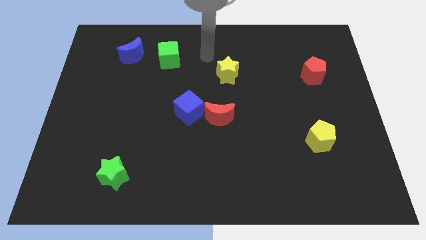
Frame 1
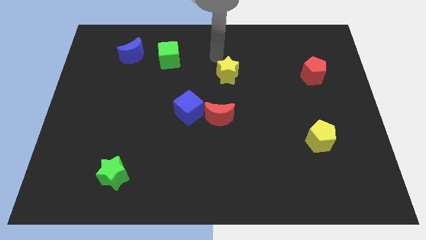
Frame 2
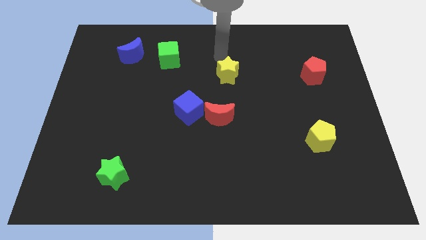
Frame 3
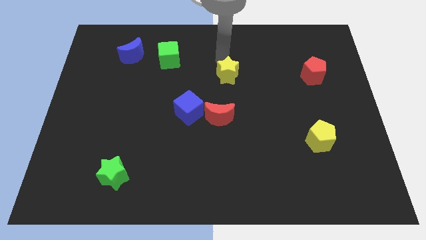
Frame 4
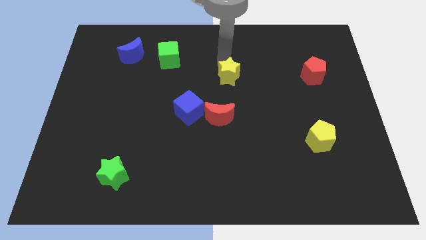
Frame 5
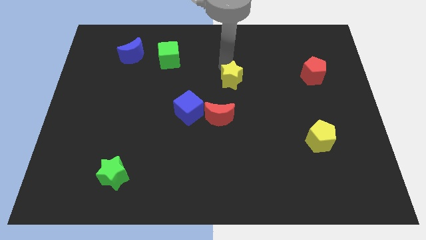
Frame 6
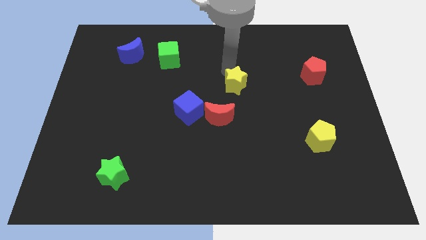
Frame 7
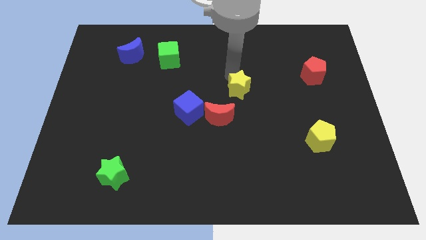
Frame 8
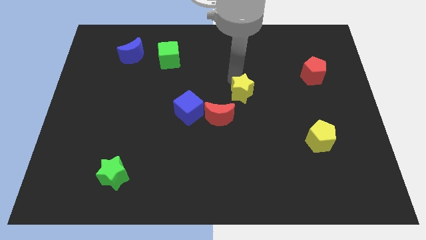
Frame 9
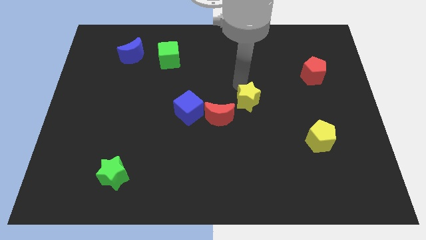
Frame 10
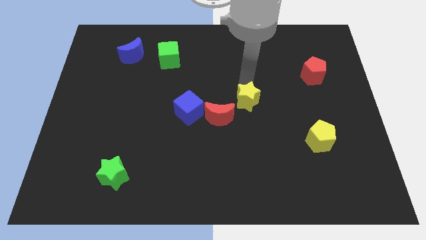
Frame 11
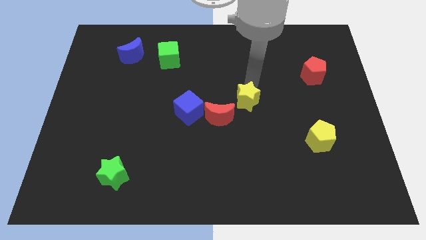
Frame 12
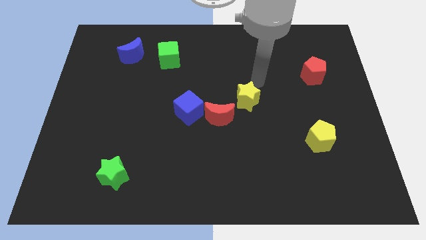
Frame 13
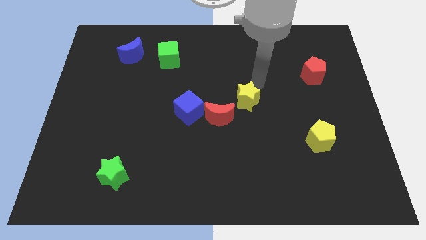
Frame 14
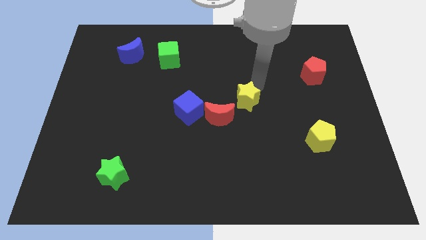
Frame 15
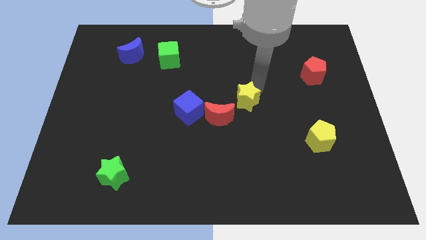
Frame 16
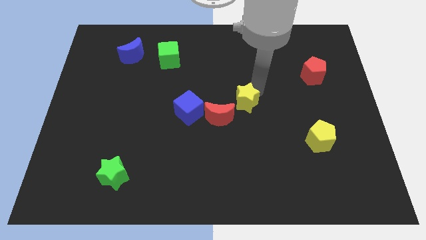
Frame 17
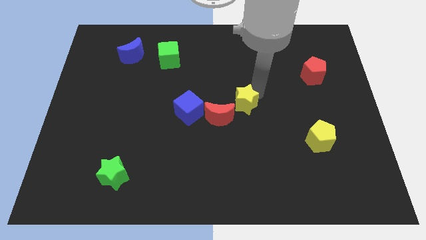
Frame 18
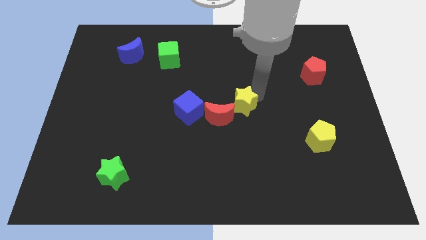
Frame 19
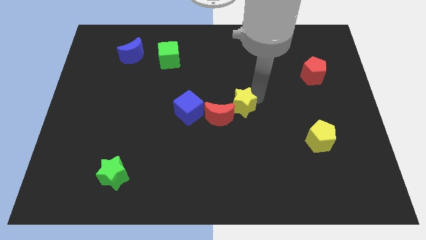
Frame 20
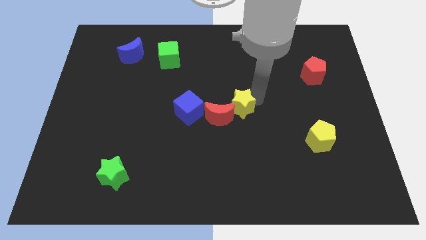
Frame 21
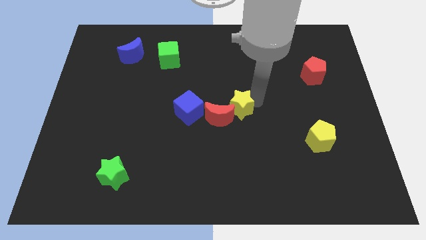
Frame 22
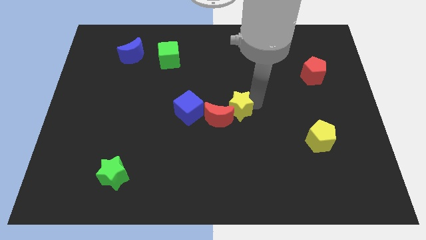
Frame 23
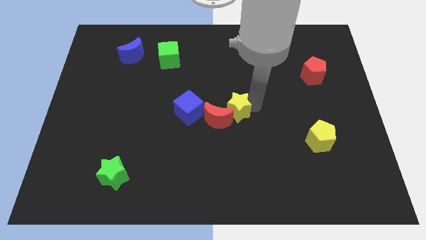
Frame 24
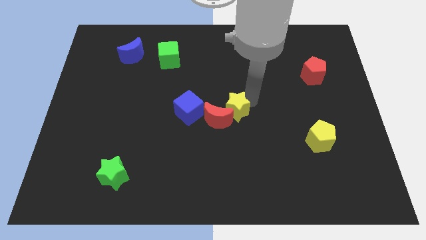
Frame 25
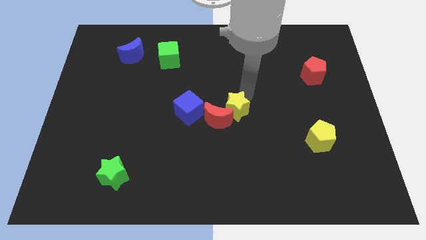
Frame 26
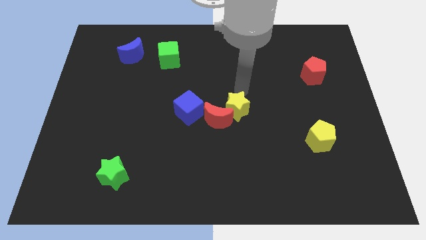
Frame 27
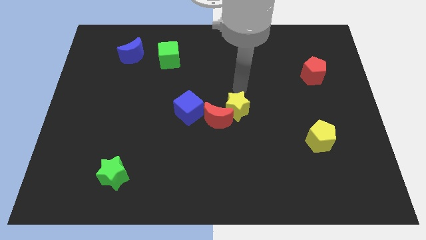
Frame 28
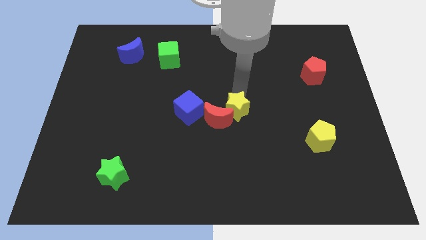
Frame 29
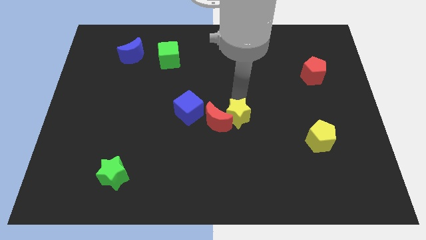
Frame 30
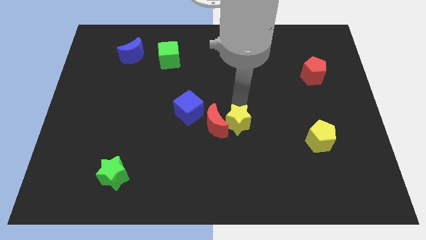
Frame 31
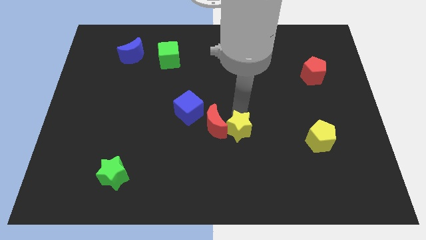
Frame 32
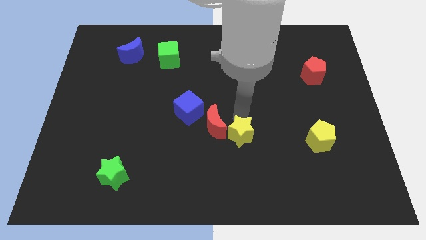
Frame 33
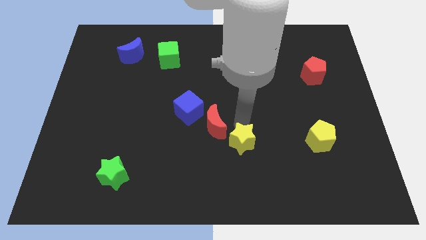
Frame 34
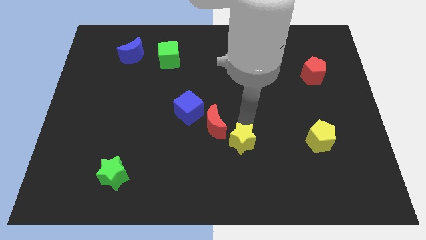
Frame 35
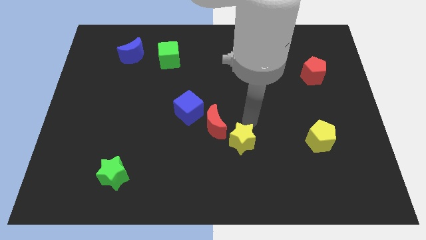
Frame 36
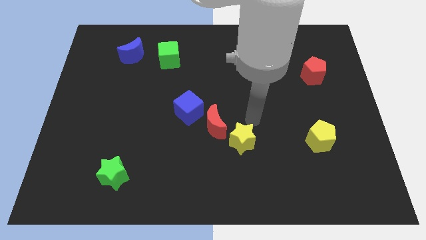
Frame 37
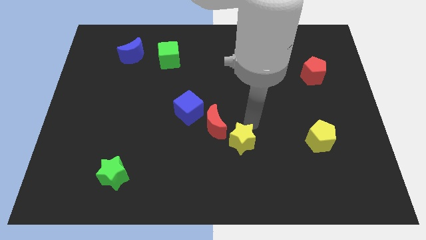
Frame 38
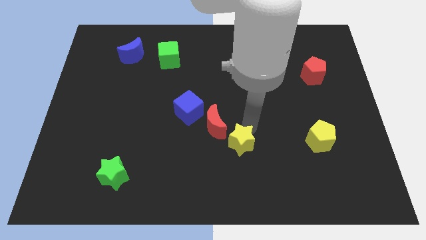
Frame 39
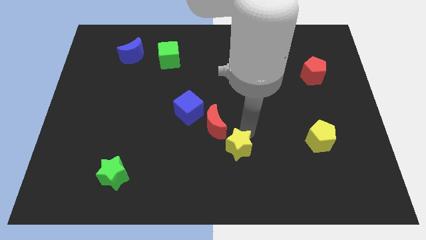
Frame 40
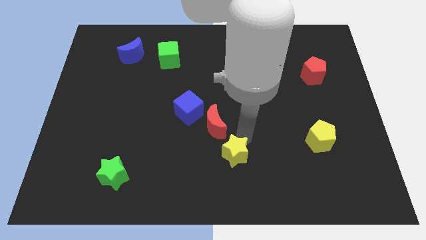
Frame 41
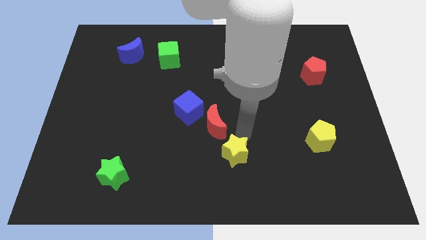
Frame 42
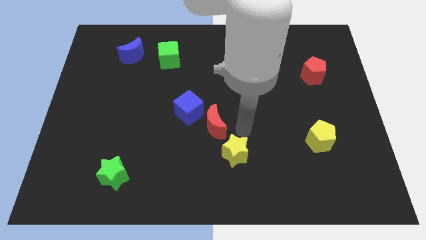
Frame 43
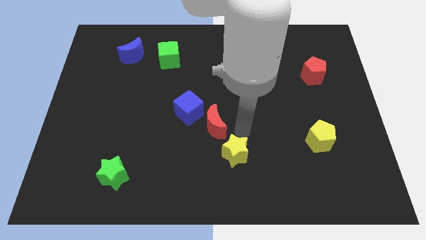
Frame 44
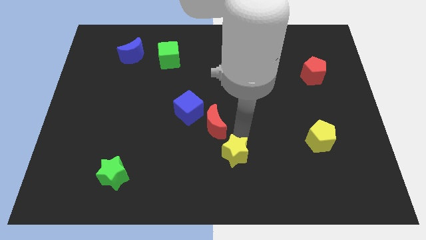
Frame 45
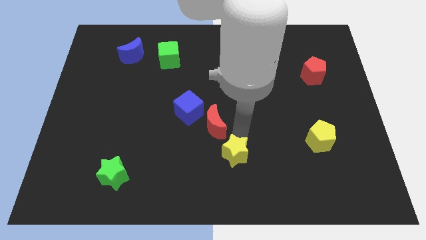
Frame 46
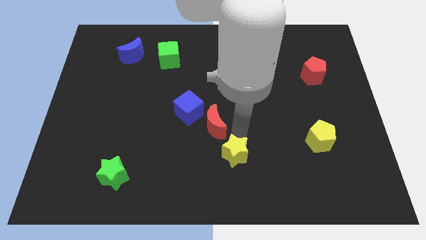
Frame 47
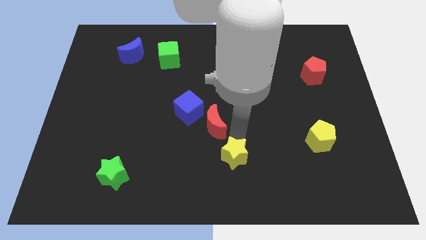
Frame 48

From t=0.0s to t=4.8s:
put the yellow star to the bottom

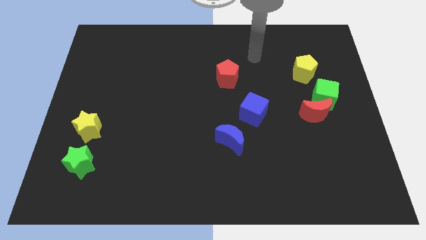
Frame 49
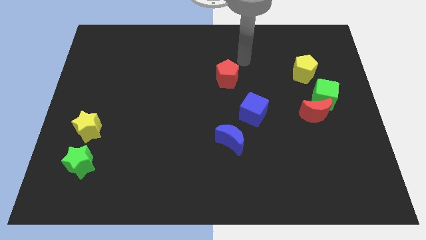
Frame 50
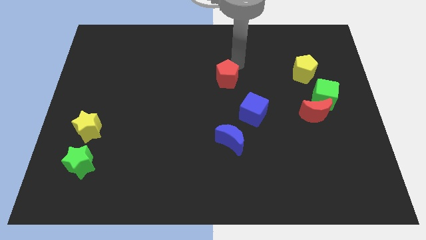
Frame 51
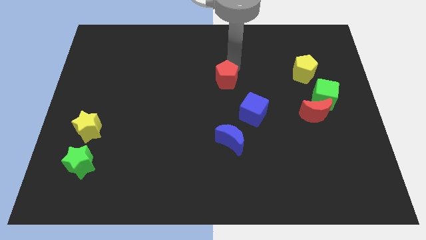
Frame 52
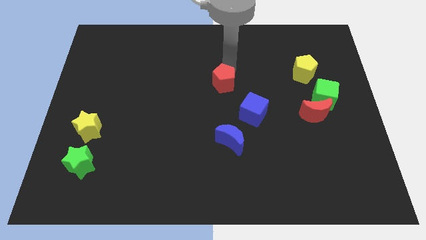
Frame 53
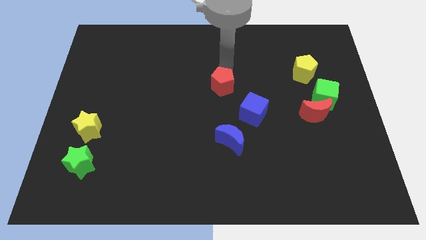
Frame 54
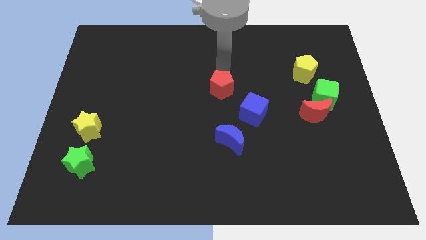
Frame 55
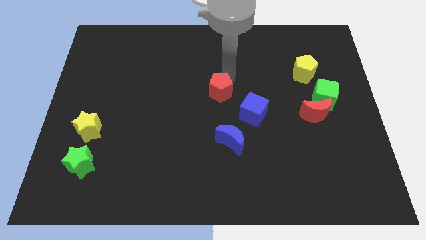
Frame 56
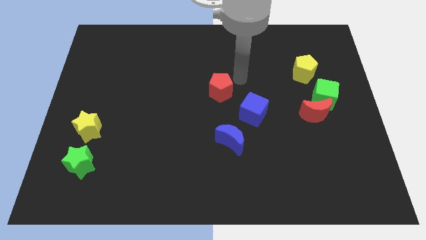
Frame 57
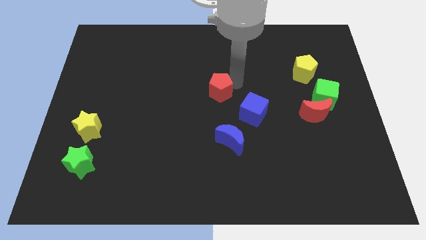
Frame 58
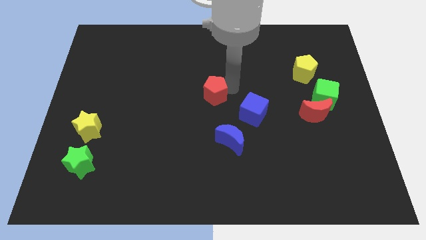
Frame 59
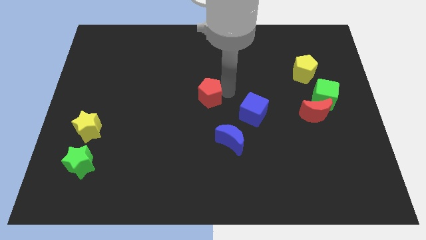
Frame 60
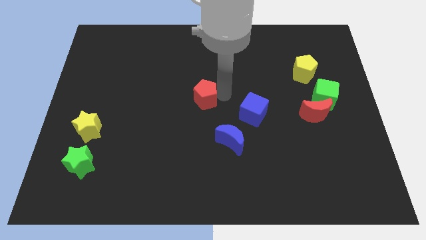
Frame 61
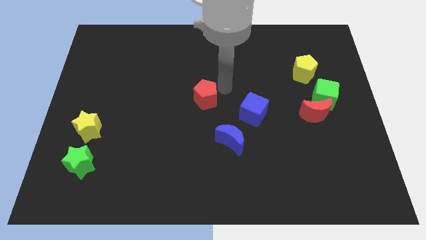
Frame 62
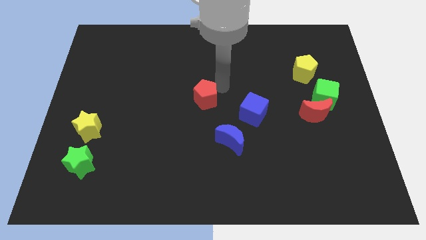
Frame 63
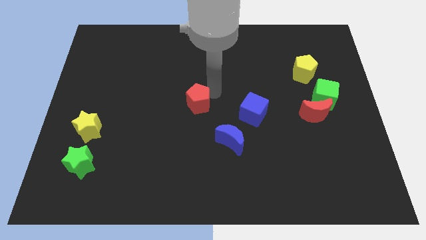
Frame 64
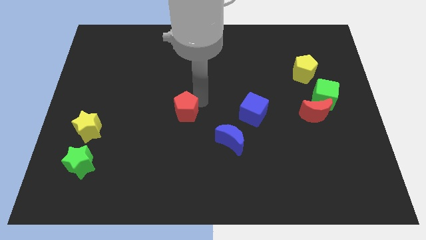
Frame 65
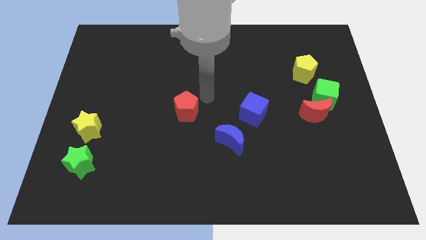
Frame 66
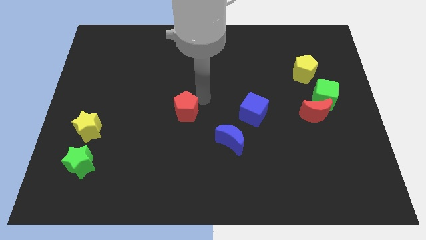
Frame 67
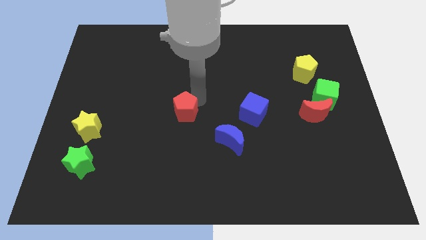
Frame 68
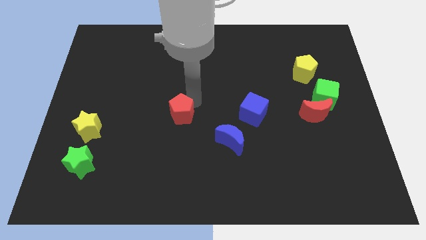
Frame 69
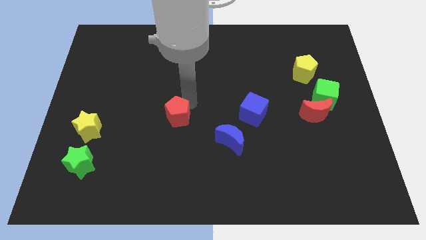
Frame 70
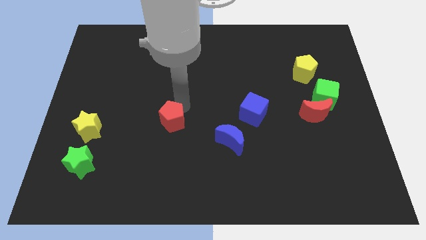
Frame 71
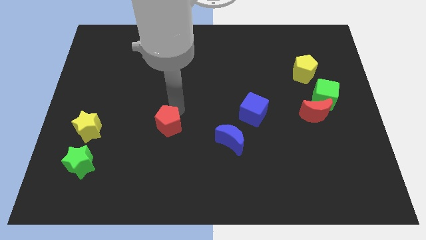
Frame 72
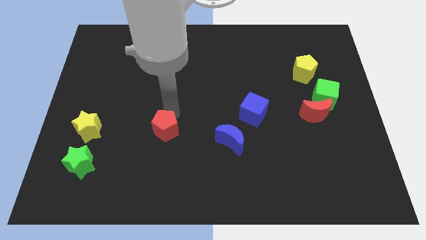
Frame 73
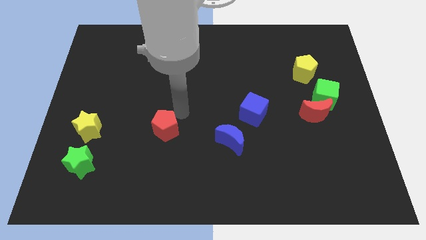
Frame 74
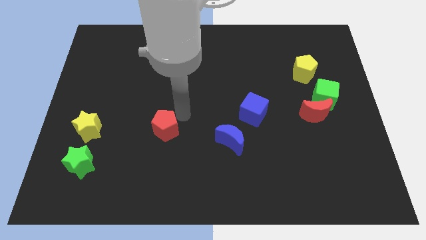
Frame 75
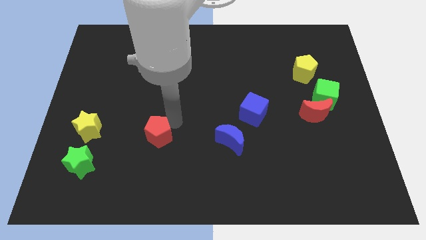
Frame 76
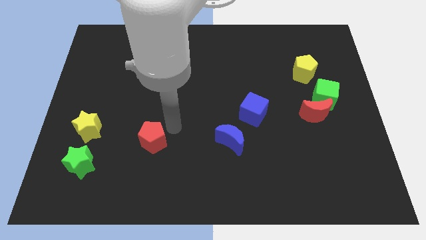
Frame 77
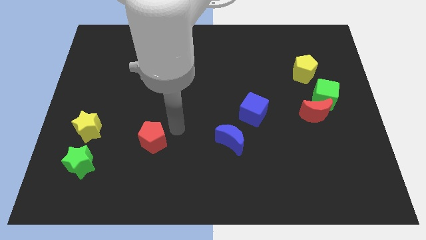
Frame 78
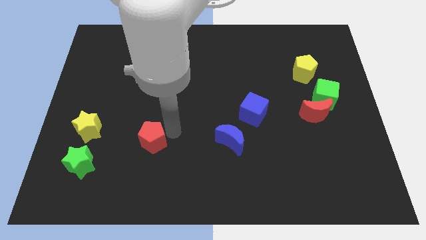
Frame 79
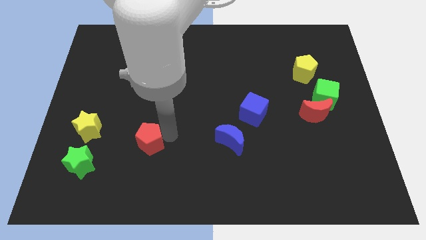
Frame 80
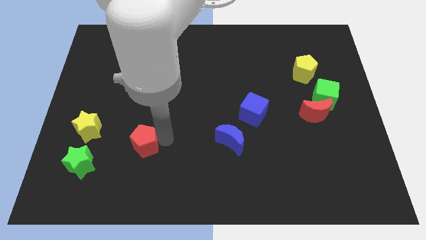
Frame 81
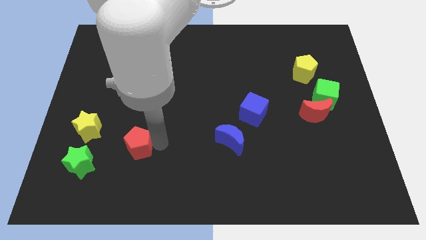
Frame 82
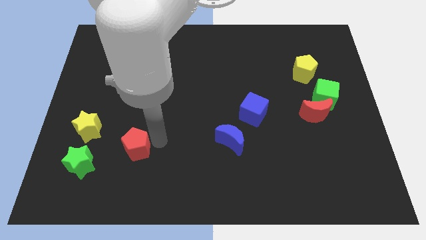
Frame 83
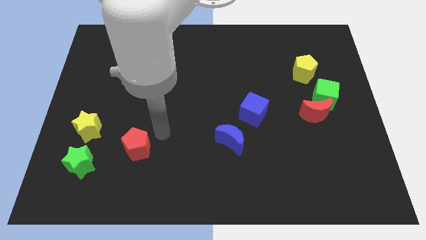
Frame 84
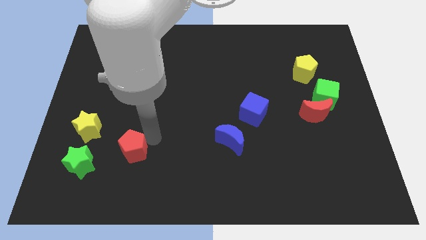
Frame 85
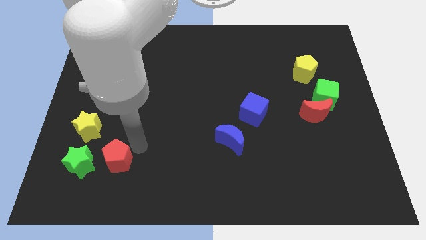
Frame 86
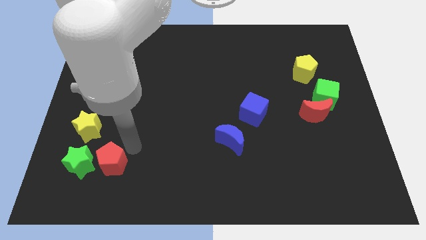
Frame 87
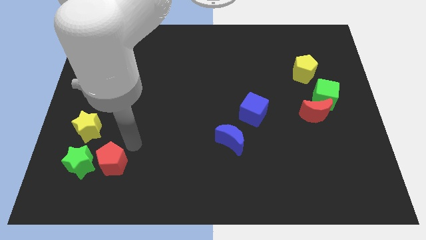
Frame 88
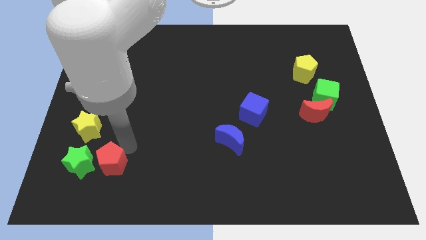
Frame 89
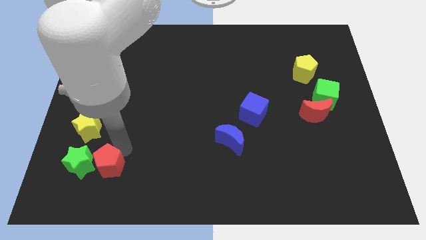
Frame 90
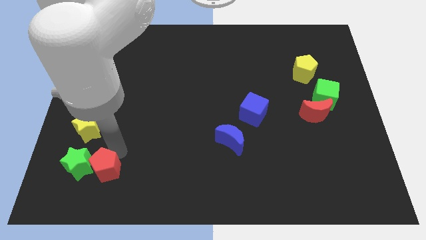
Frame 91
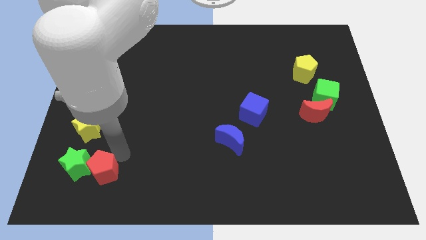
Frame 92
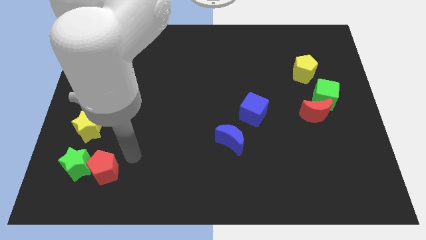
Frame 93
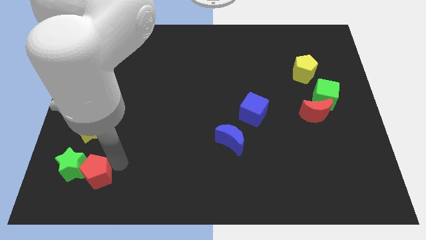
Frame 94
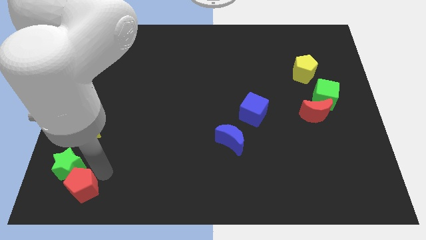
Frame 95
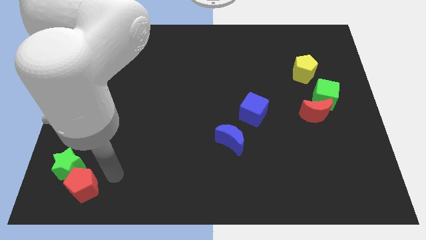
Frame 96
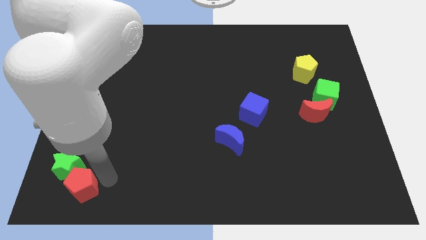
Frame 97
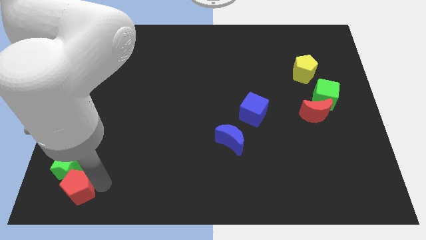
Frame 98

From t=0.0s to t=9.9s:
slide the red pentagon to the bottom left corner
